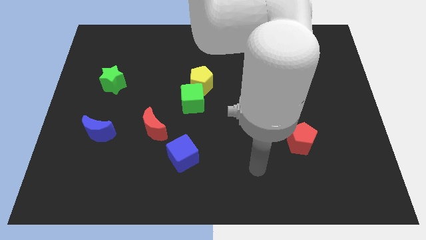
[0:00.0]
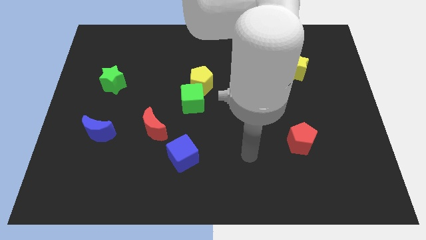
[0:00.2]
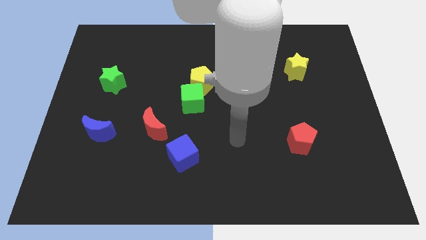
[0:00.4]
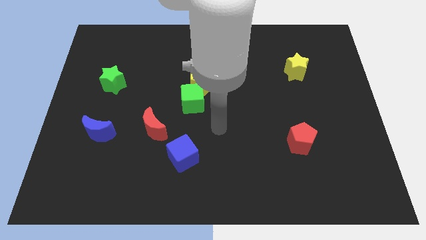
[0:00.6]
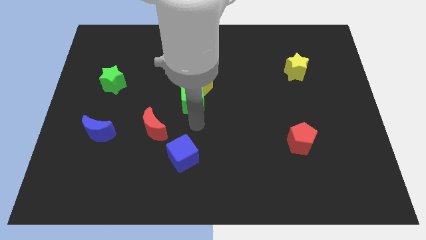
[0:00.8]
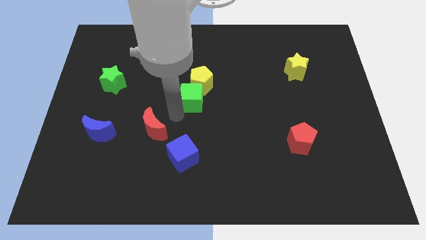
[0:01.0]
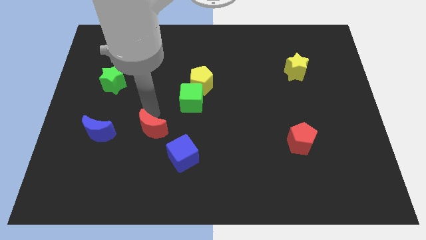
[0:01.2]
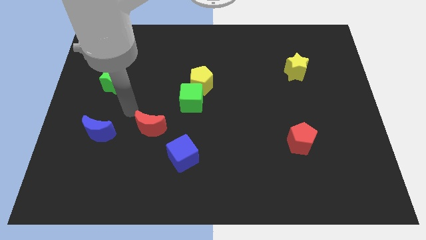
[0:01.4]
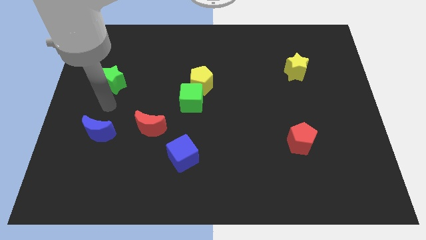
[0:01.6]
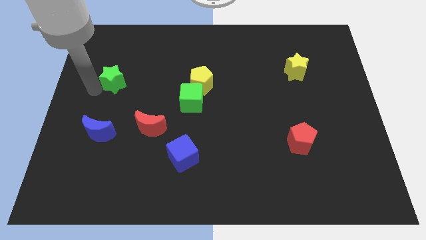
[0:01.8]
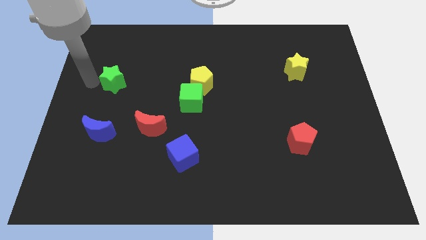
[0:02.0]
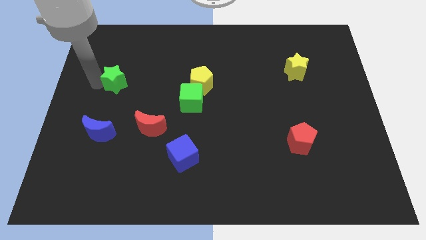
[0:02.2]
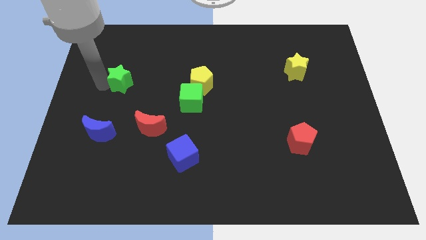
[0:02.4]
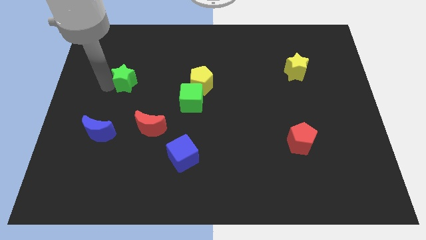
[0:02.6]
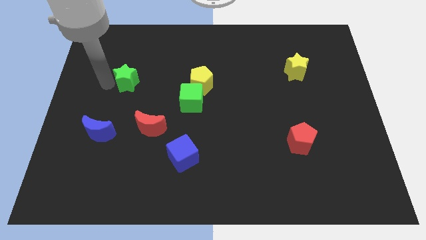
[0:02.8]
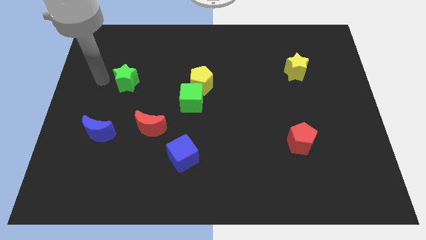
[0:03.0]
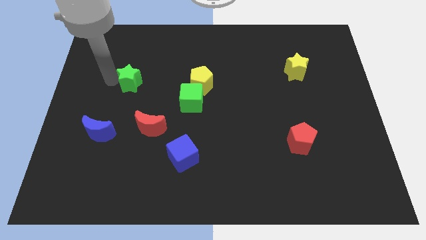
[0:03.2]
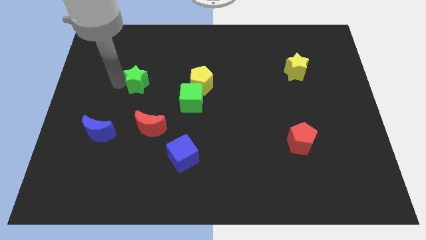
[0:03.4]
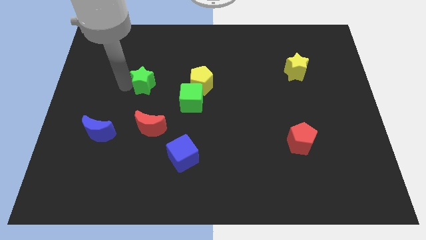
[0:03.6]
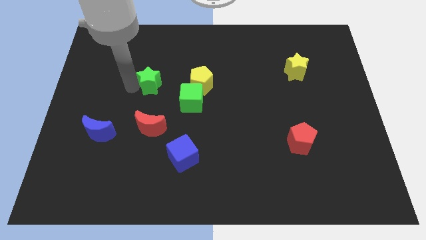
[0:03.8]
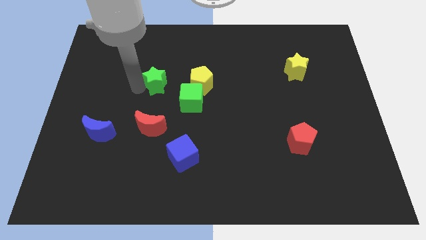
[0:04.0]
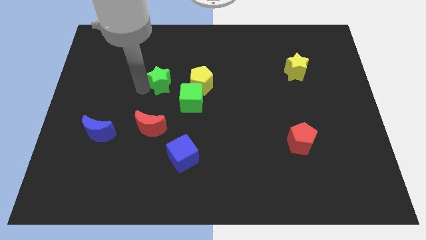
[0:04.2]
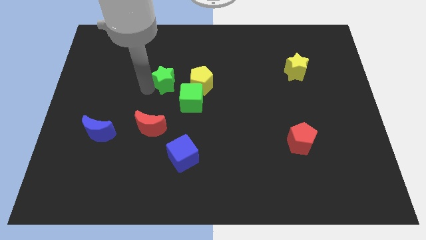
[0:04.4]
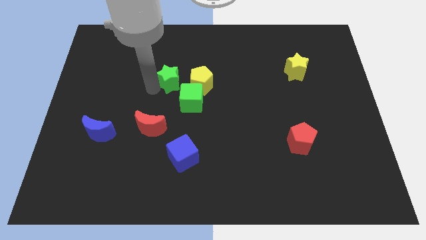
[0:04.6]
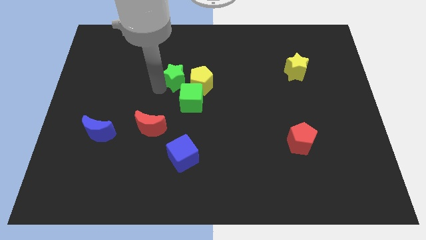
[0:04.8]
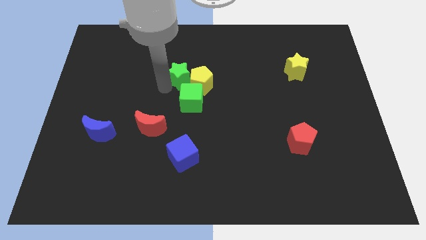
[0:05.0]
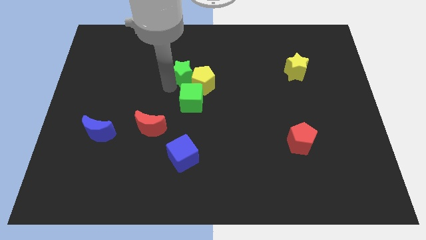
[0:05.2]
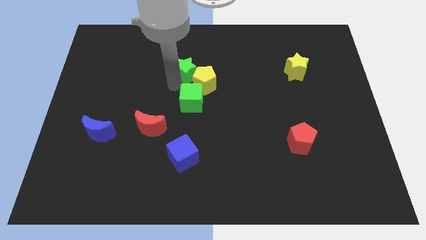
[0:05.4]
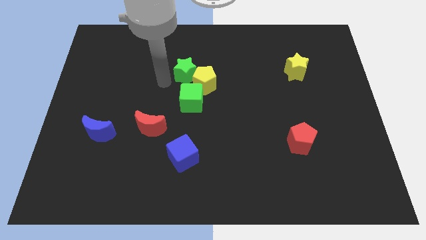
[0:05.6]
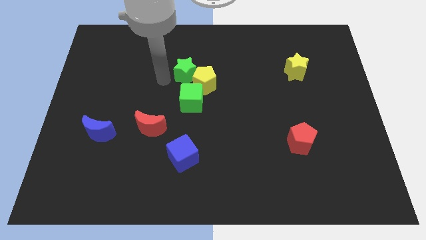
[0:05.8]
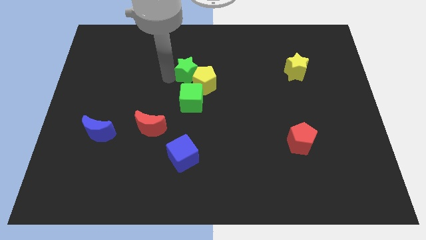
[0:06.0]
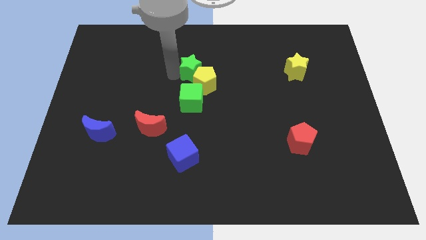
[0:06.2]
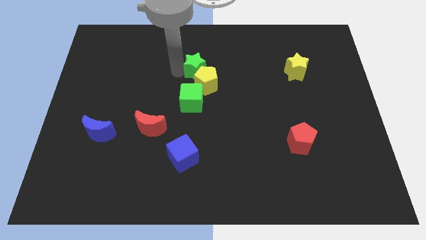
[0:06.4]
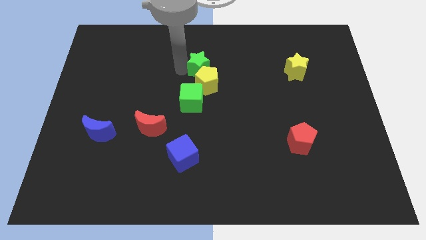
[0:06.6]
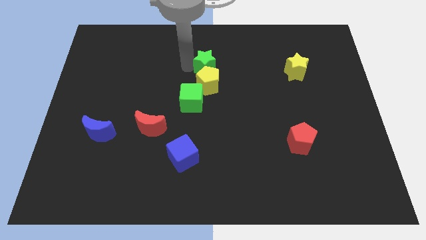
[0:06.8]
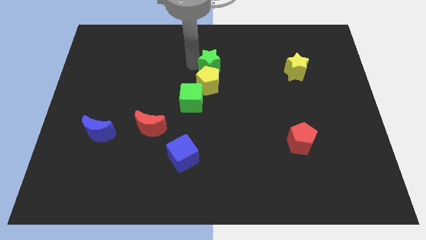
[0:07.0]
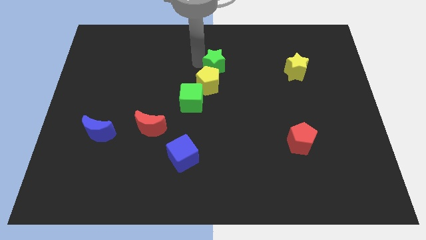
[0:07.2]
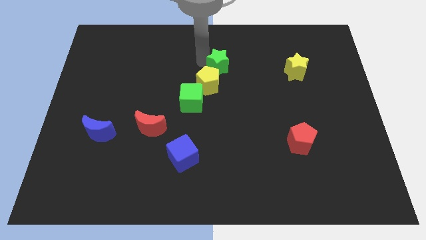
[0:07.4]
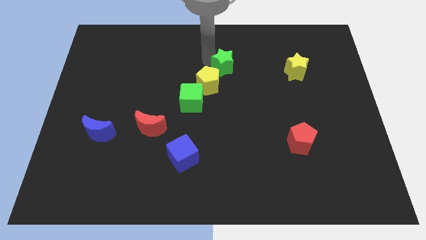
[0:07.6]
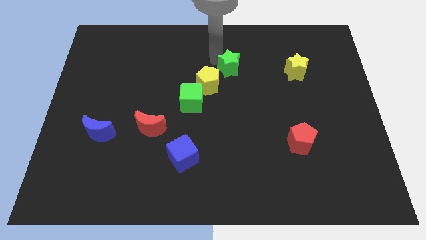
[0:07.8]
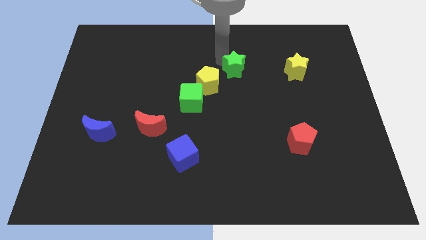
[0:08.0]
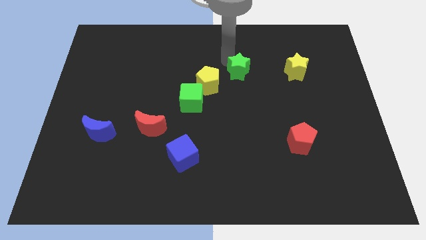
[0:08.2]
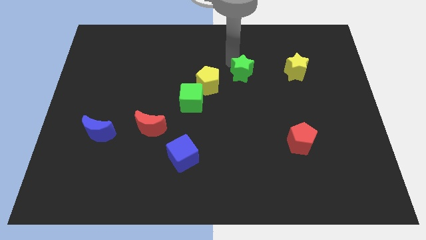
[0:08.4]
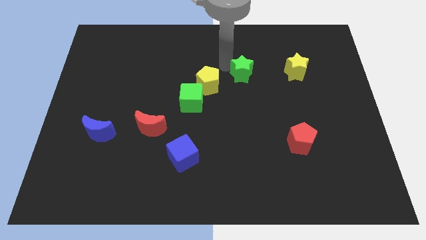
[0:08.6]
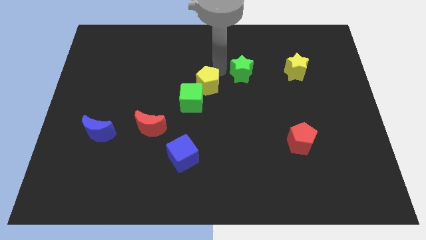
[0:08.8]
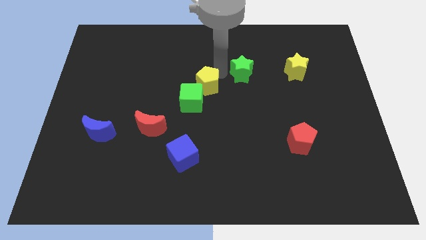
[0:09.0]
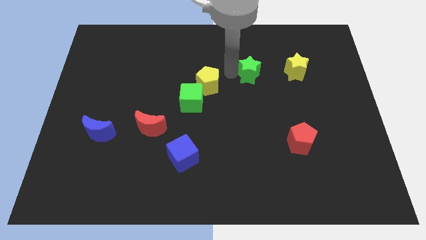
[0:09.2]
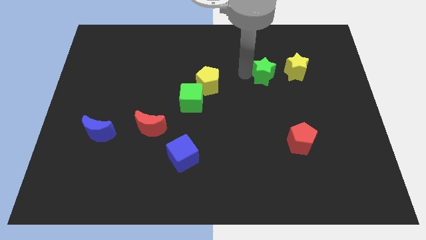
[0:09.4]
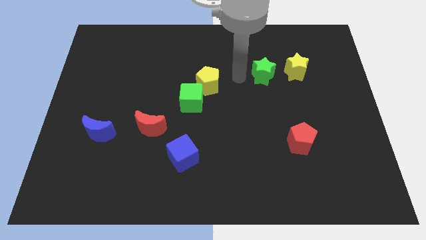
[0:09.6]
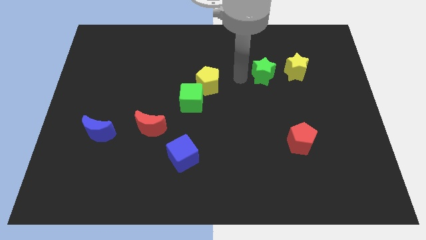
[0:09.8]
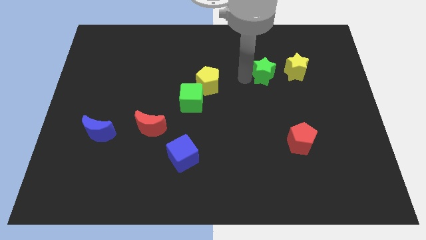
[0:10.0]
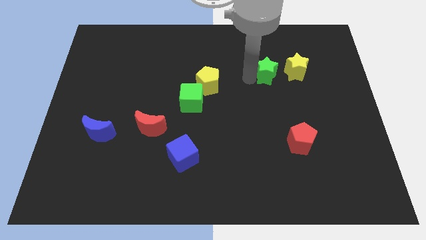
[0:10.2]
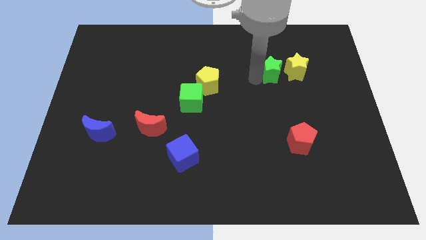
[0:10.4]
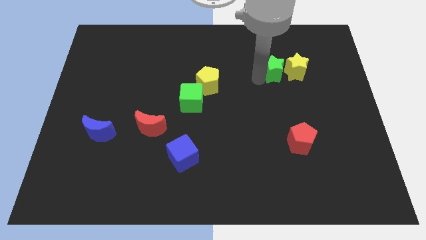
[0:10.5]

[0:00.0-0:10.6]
push the green star close to the yellow star

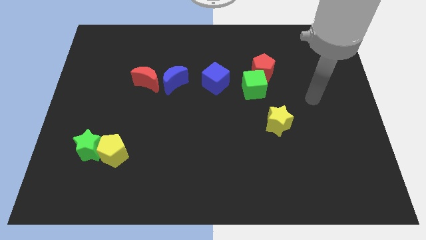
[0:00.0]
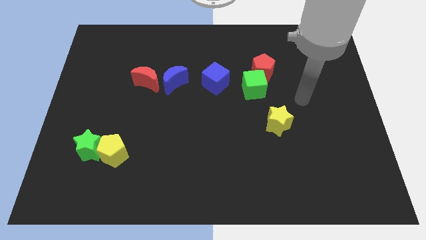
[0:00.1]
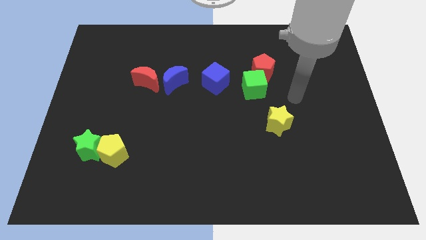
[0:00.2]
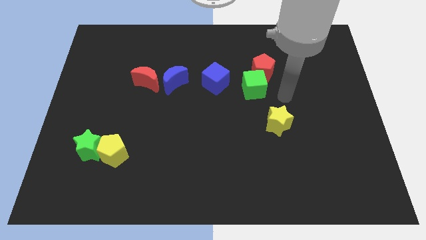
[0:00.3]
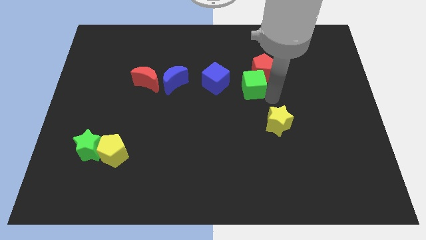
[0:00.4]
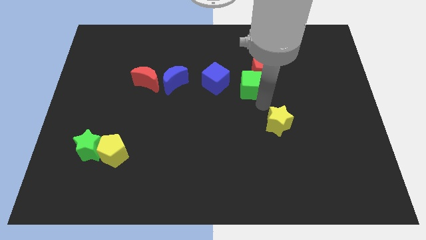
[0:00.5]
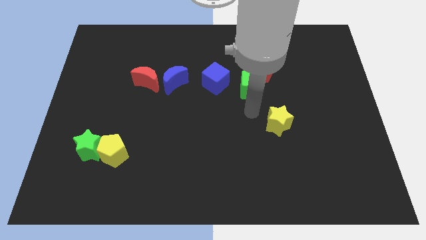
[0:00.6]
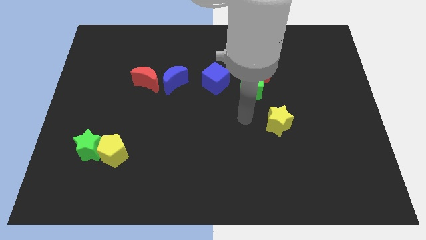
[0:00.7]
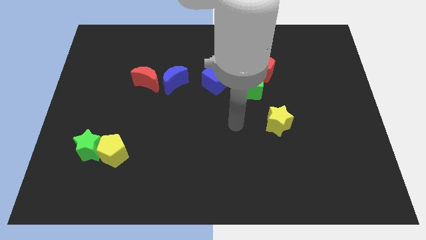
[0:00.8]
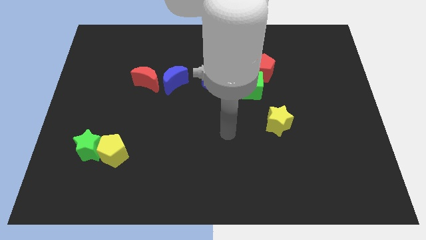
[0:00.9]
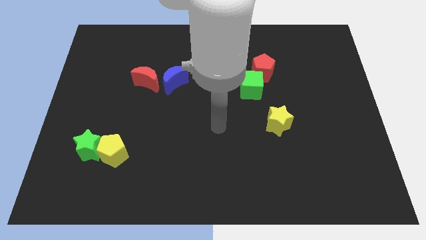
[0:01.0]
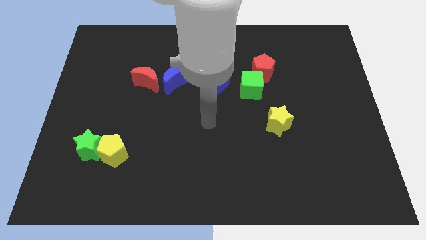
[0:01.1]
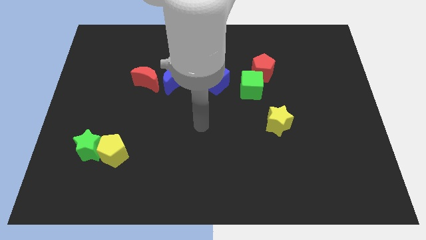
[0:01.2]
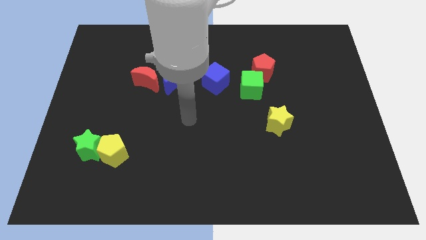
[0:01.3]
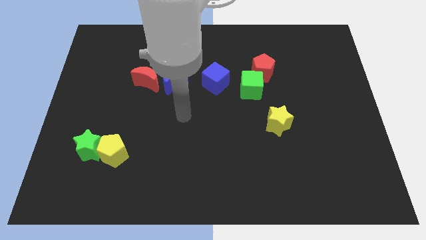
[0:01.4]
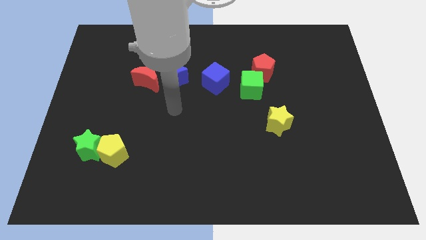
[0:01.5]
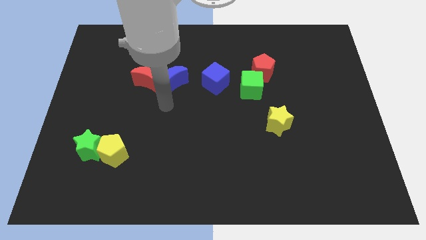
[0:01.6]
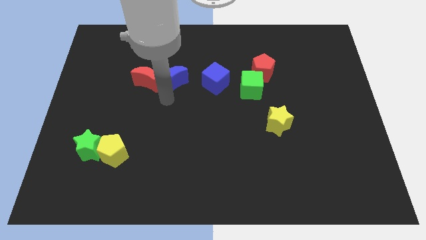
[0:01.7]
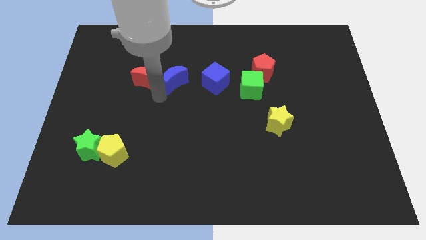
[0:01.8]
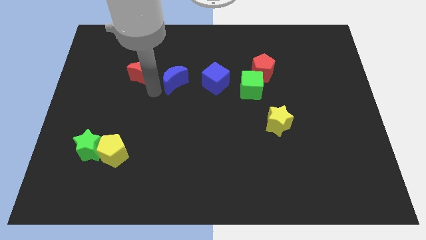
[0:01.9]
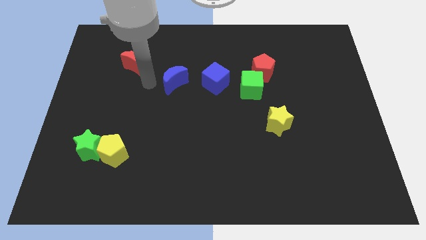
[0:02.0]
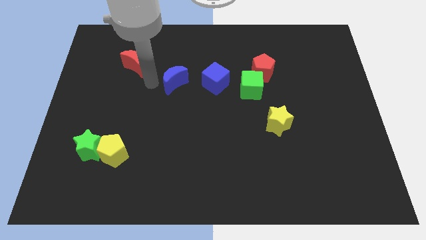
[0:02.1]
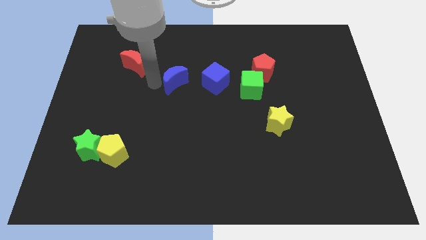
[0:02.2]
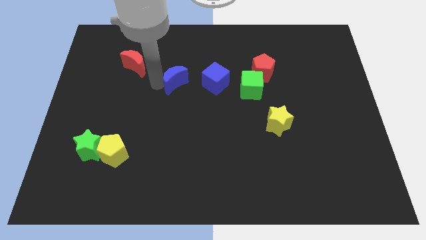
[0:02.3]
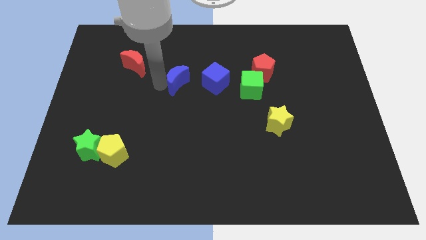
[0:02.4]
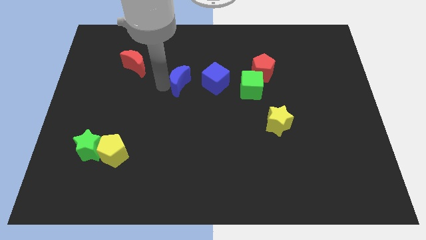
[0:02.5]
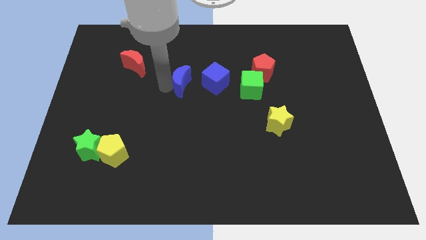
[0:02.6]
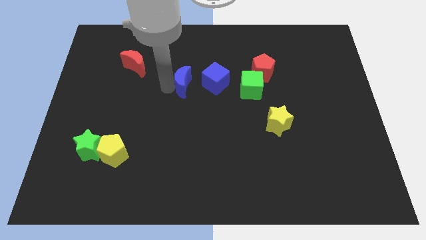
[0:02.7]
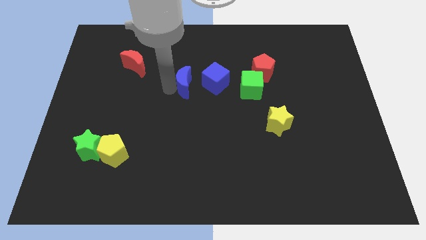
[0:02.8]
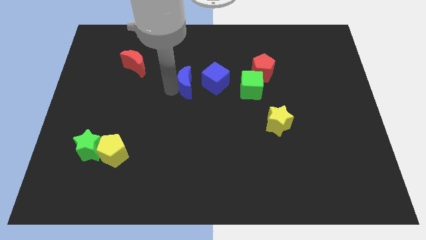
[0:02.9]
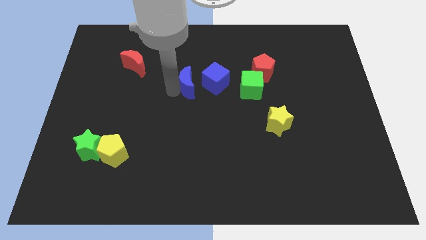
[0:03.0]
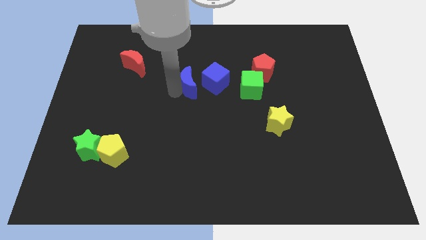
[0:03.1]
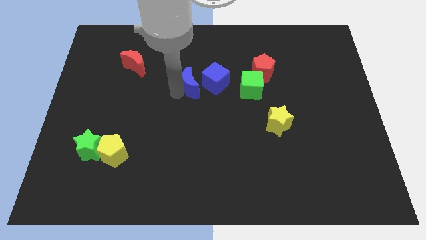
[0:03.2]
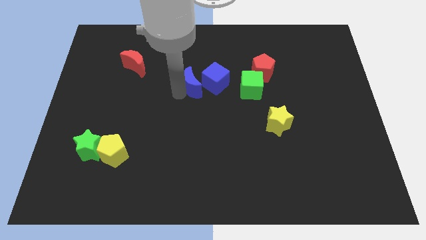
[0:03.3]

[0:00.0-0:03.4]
put the blue moon towards the blue cube
